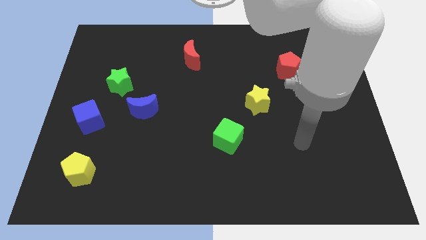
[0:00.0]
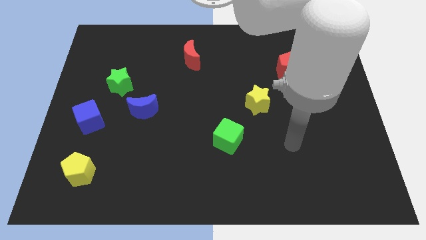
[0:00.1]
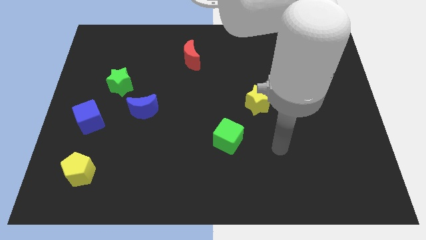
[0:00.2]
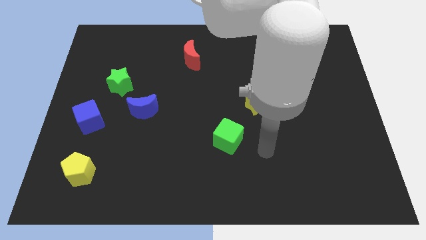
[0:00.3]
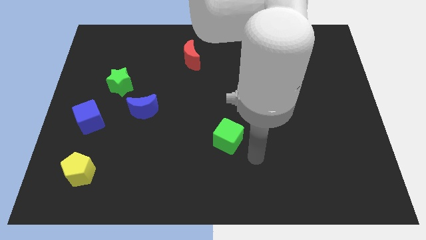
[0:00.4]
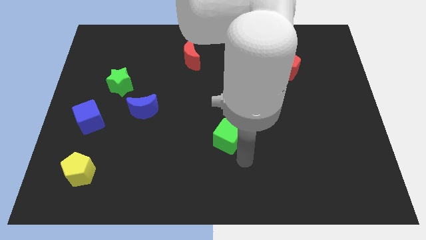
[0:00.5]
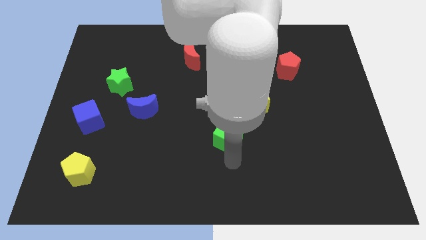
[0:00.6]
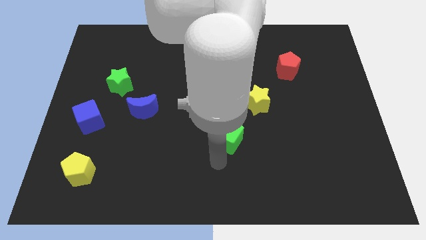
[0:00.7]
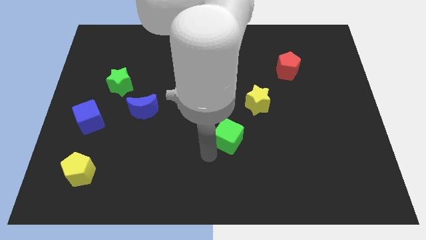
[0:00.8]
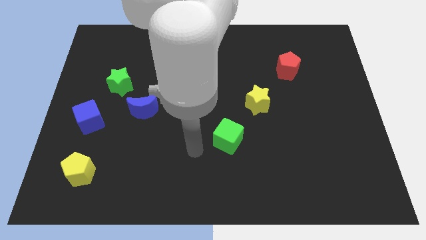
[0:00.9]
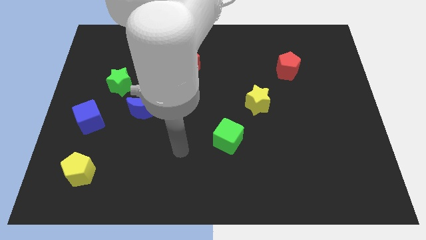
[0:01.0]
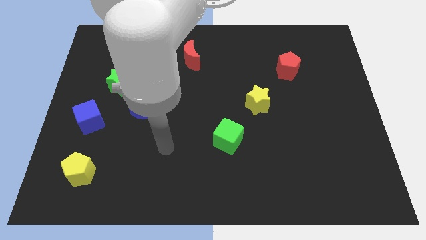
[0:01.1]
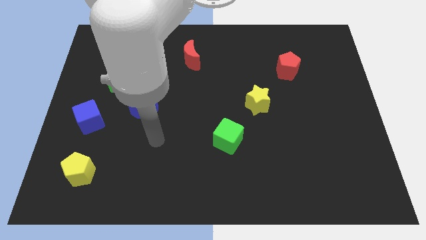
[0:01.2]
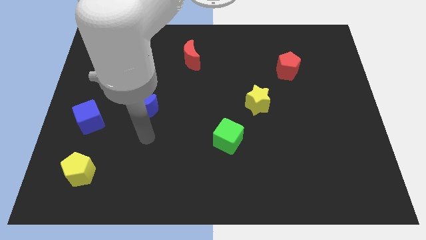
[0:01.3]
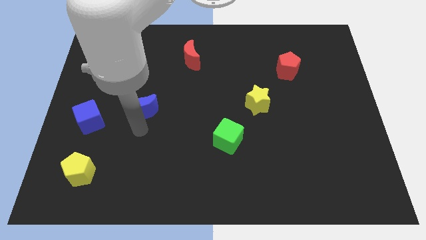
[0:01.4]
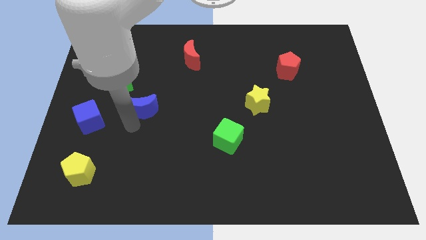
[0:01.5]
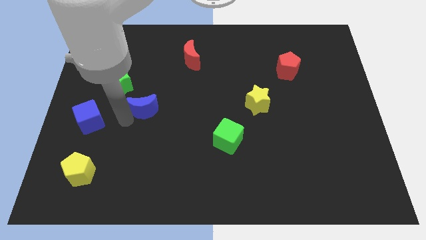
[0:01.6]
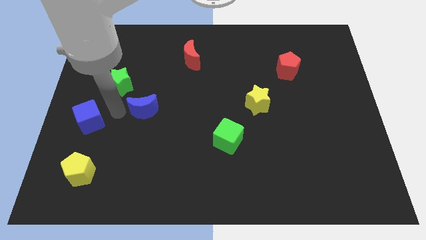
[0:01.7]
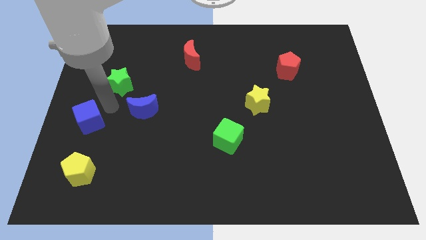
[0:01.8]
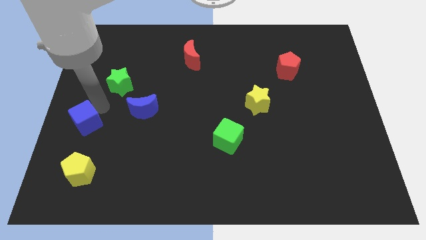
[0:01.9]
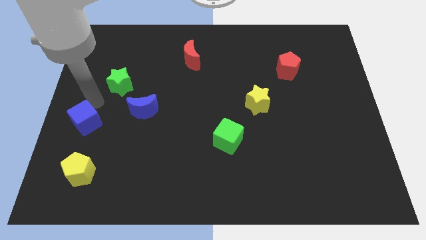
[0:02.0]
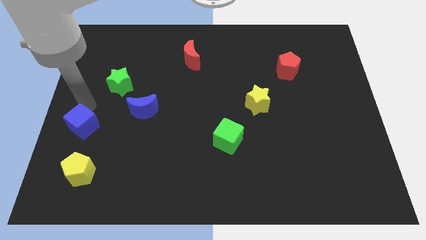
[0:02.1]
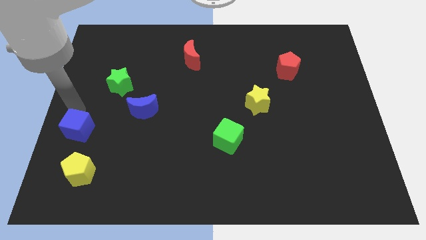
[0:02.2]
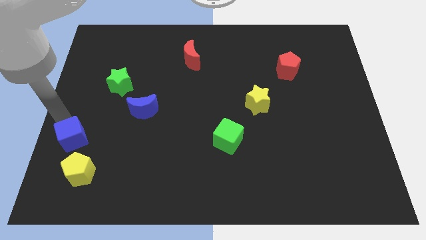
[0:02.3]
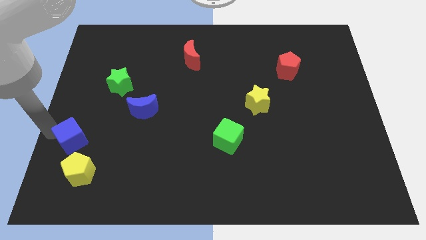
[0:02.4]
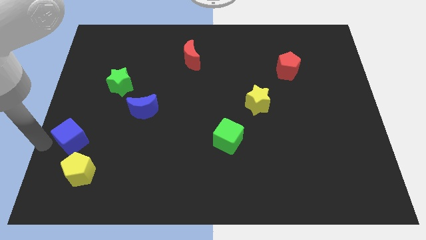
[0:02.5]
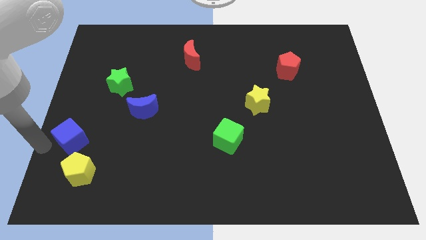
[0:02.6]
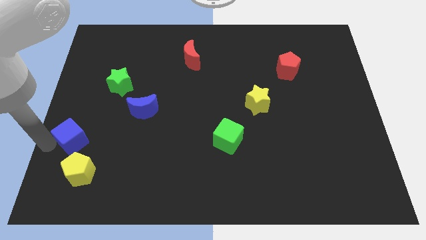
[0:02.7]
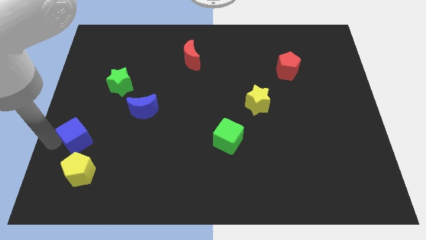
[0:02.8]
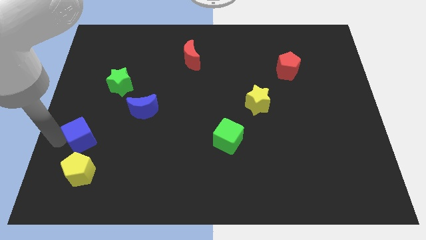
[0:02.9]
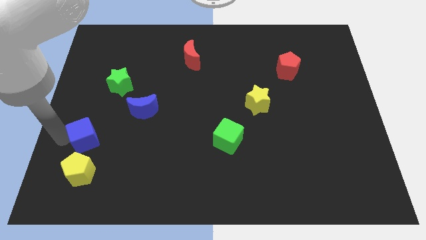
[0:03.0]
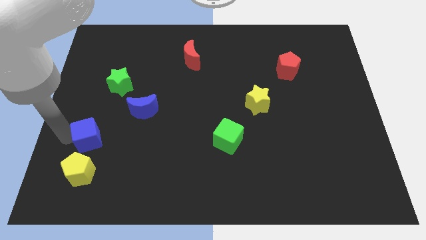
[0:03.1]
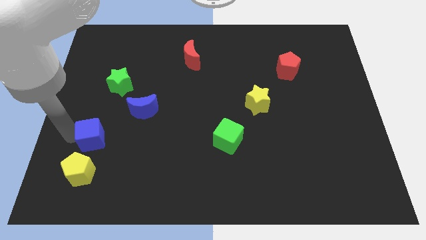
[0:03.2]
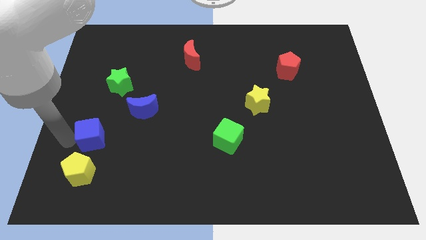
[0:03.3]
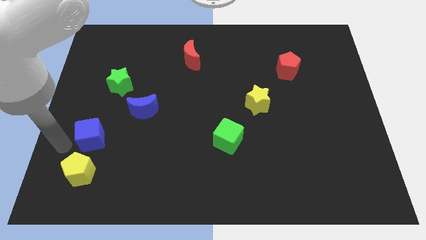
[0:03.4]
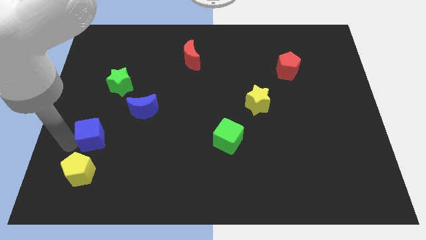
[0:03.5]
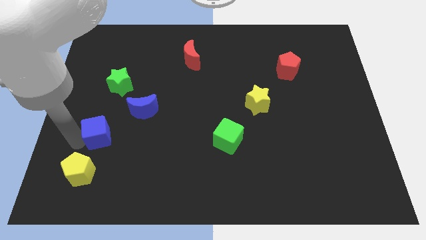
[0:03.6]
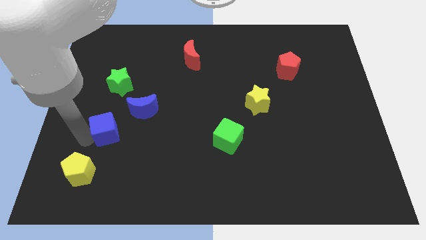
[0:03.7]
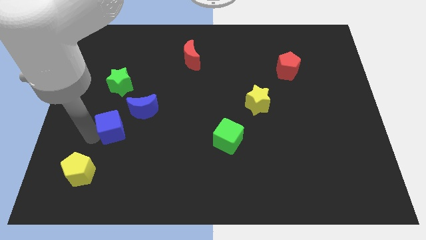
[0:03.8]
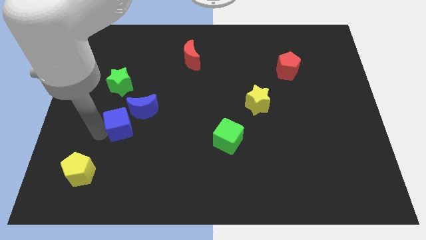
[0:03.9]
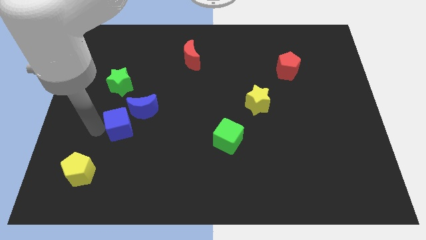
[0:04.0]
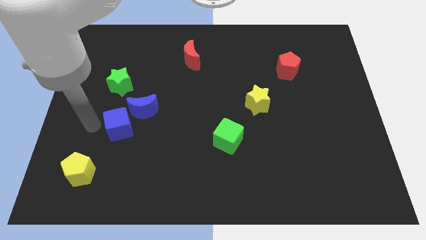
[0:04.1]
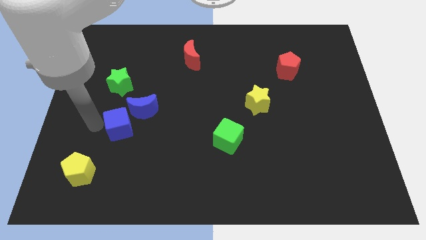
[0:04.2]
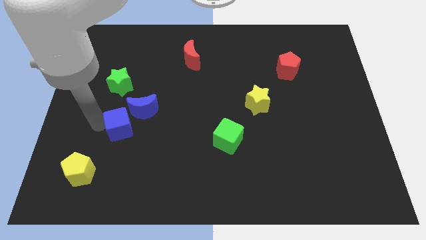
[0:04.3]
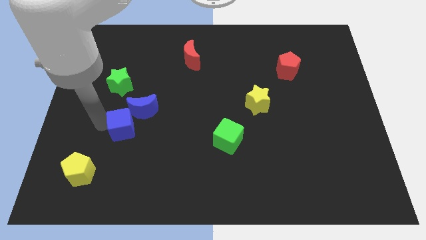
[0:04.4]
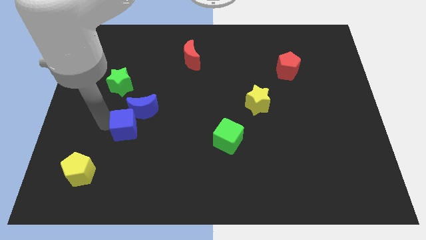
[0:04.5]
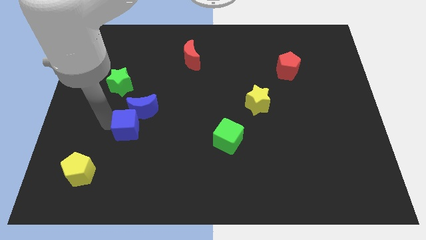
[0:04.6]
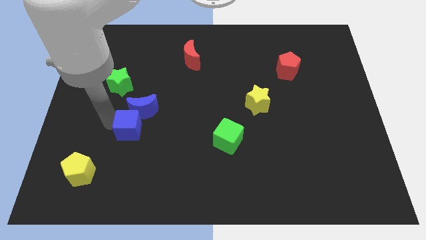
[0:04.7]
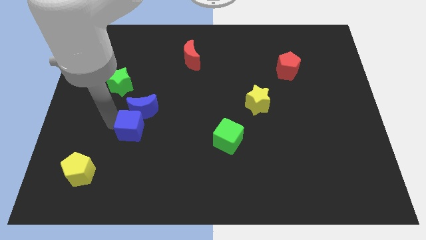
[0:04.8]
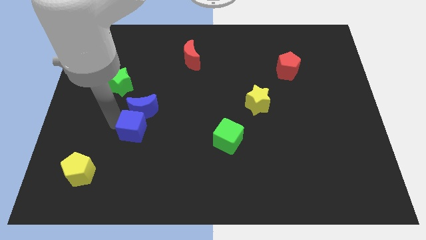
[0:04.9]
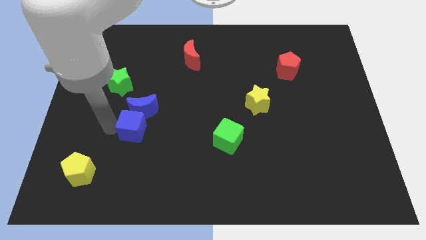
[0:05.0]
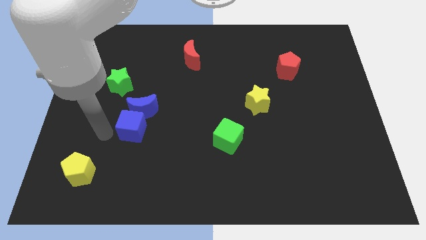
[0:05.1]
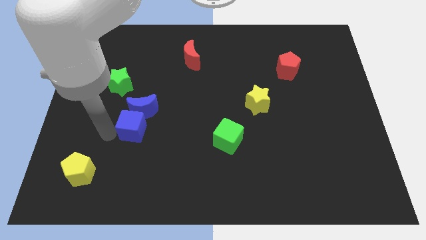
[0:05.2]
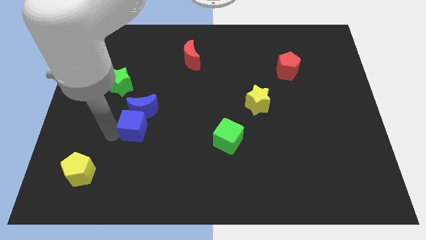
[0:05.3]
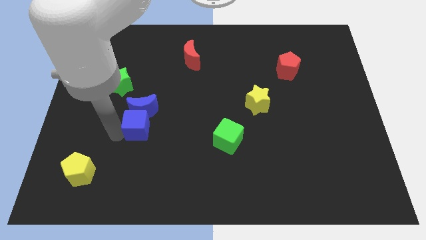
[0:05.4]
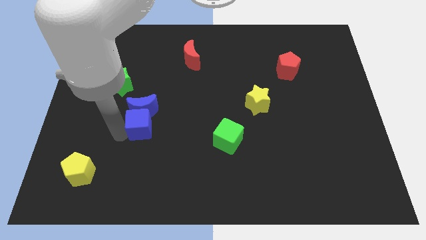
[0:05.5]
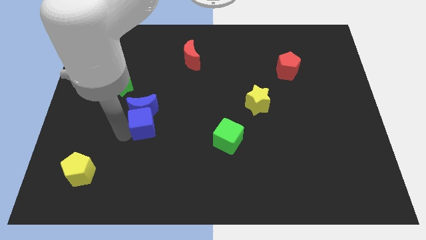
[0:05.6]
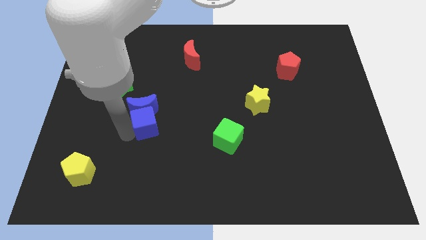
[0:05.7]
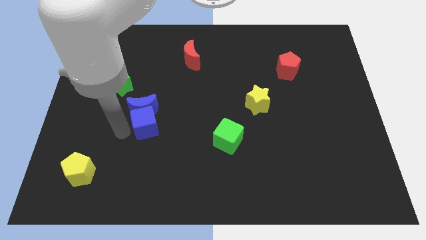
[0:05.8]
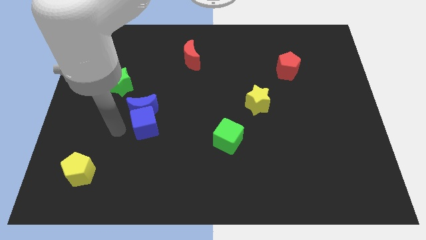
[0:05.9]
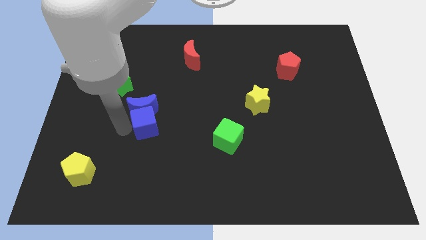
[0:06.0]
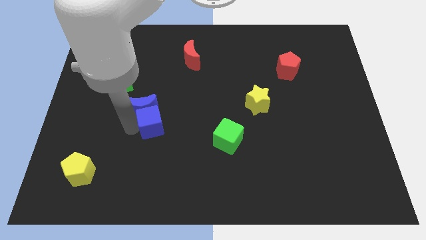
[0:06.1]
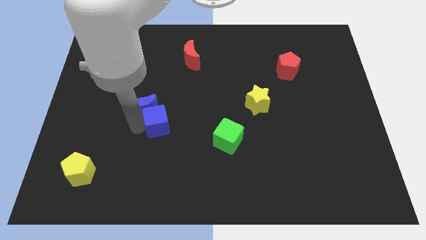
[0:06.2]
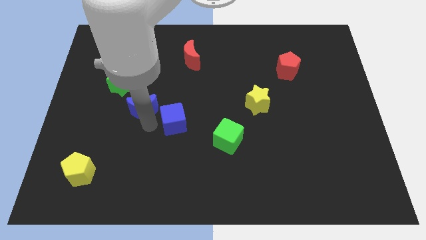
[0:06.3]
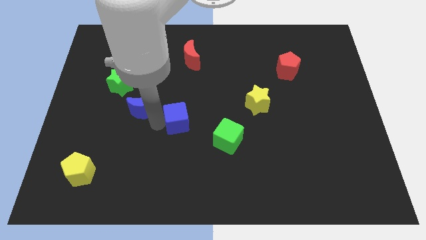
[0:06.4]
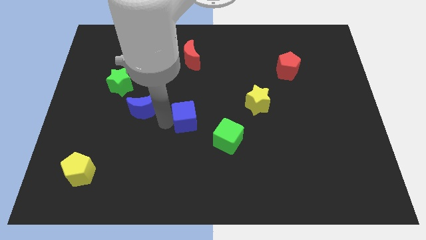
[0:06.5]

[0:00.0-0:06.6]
slide the blue cube diagonally up and to the left of the green cube

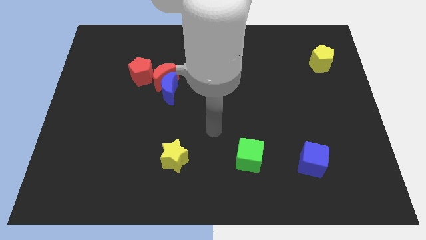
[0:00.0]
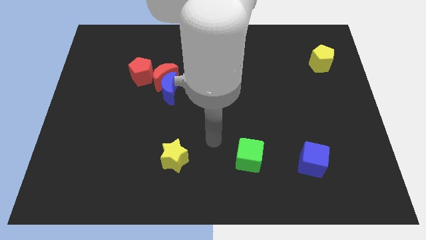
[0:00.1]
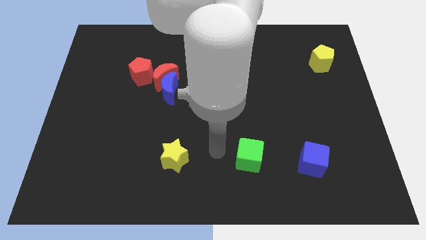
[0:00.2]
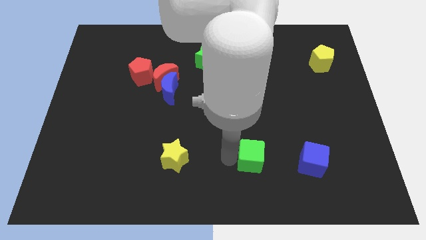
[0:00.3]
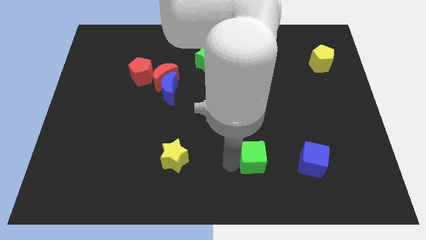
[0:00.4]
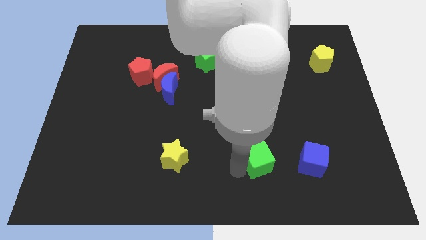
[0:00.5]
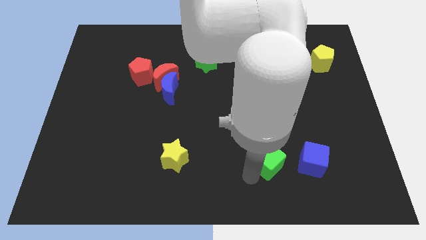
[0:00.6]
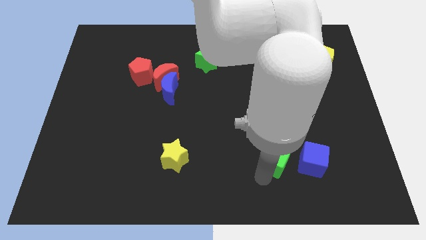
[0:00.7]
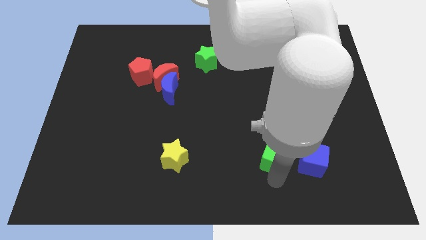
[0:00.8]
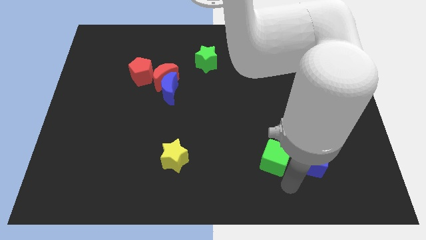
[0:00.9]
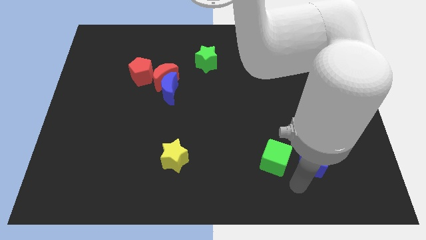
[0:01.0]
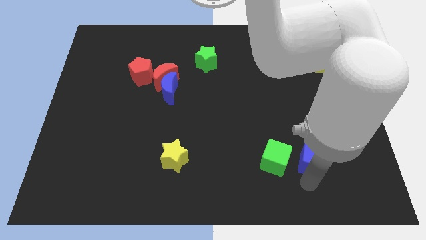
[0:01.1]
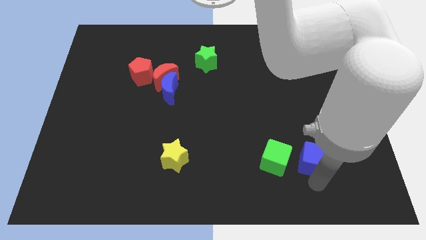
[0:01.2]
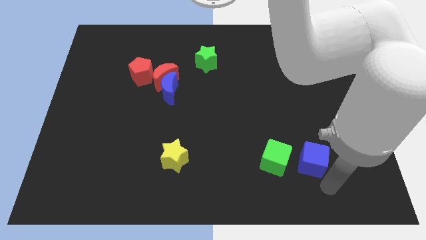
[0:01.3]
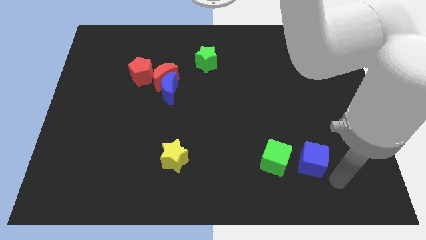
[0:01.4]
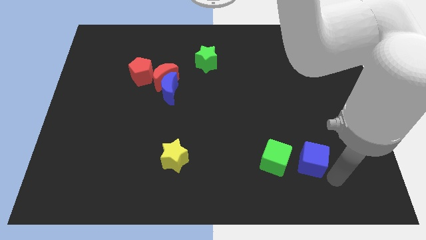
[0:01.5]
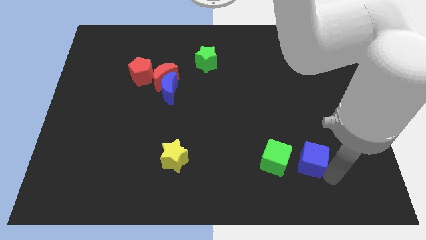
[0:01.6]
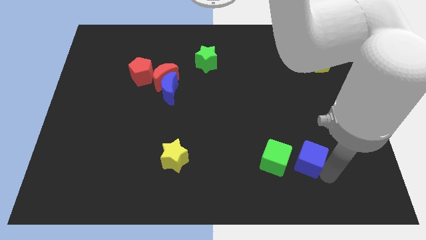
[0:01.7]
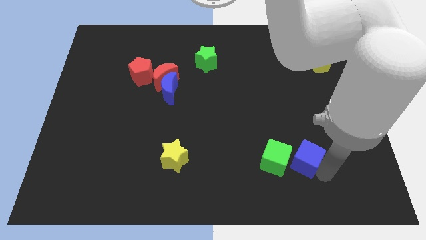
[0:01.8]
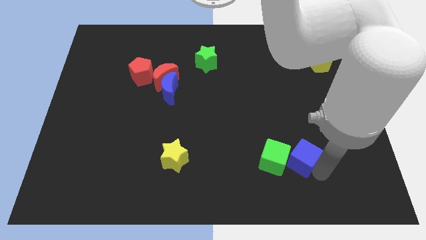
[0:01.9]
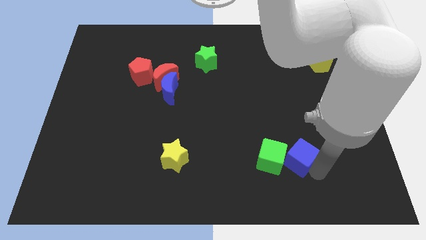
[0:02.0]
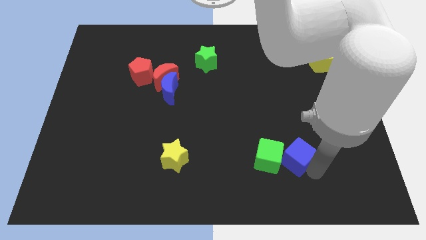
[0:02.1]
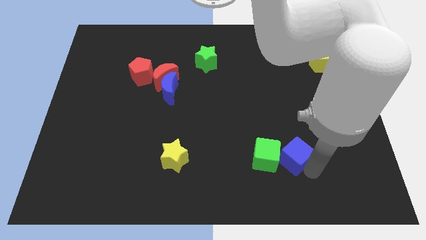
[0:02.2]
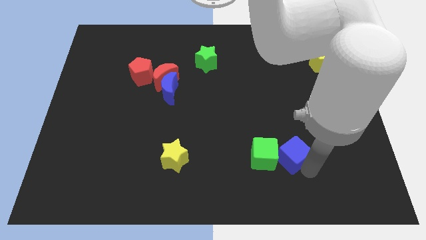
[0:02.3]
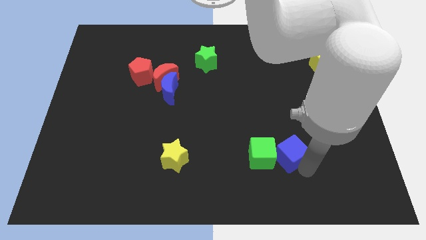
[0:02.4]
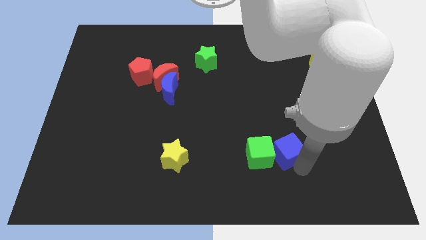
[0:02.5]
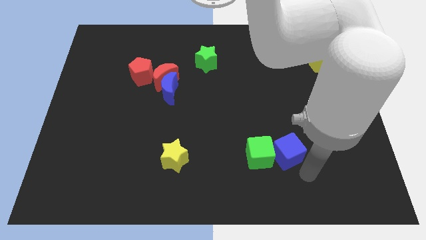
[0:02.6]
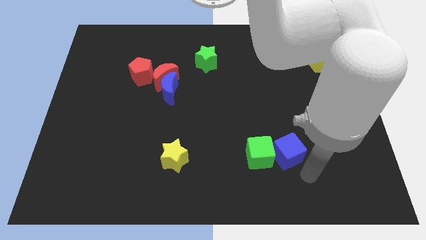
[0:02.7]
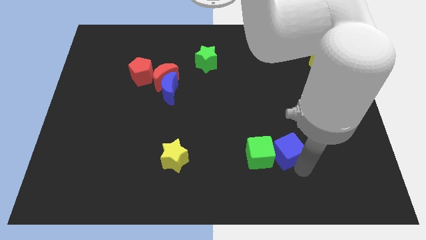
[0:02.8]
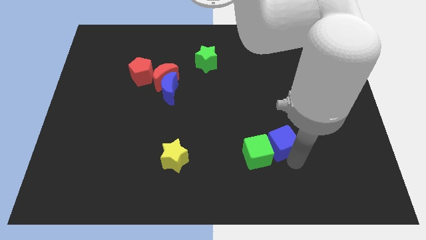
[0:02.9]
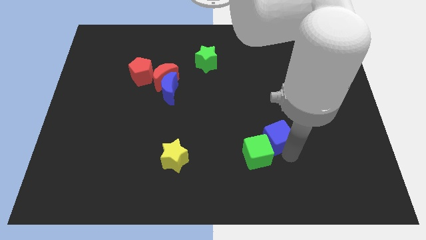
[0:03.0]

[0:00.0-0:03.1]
push the blue cube to the top side of the green cube
